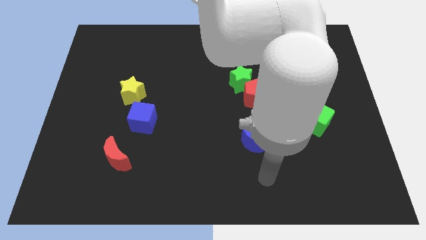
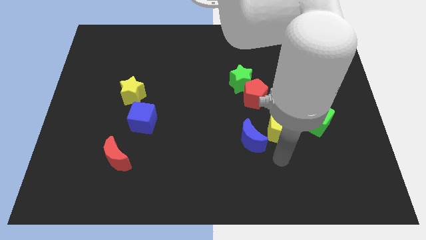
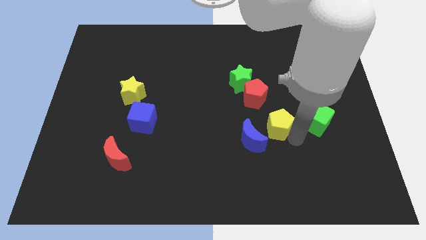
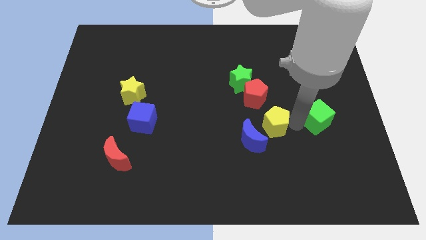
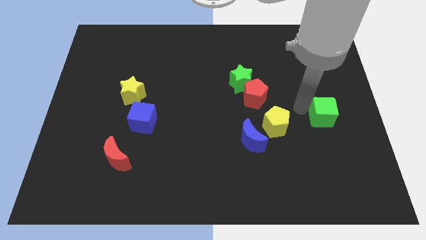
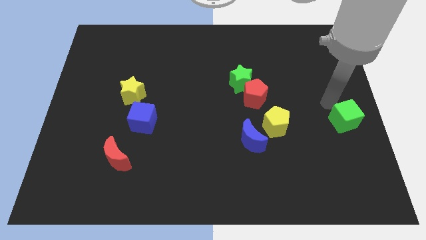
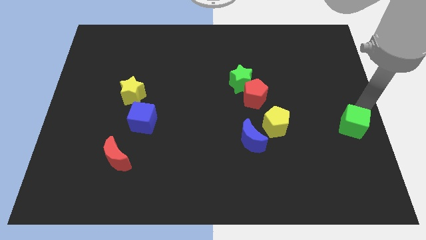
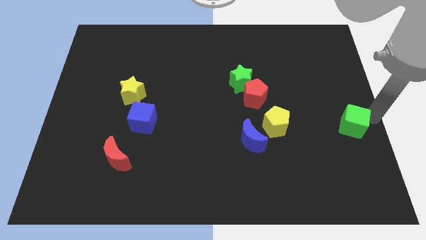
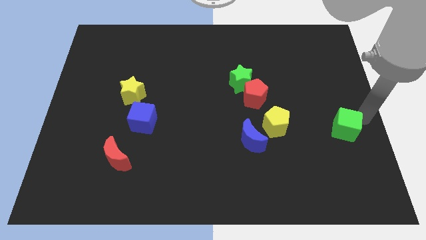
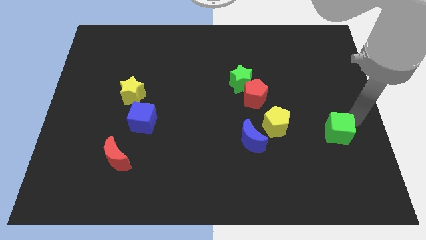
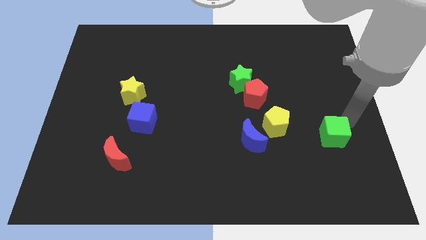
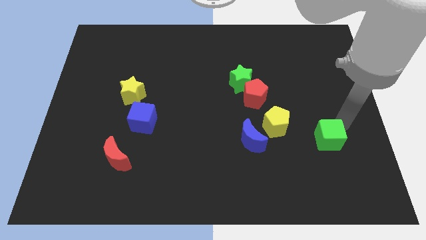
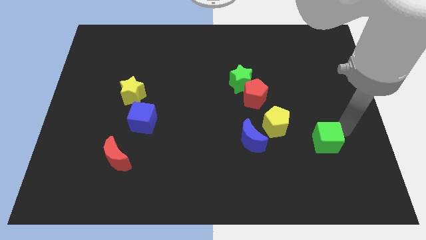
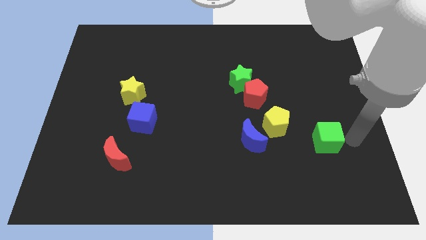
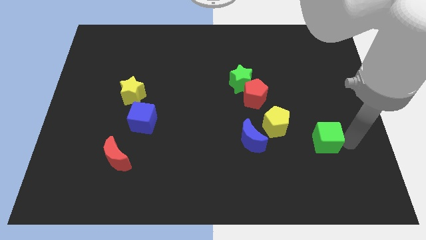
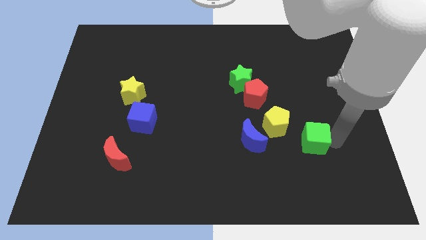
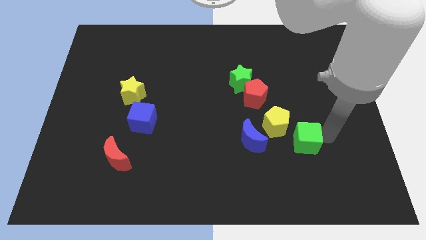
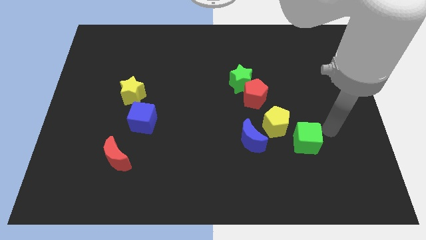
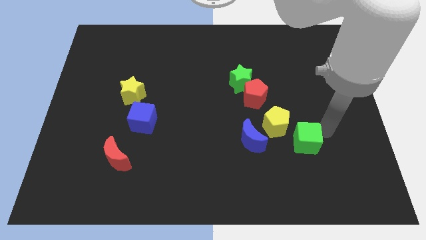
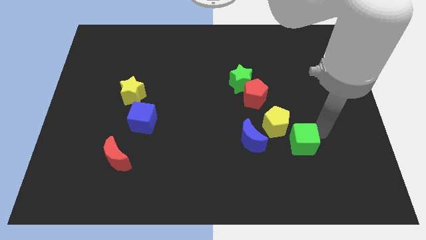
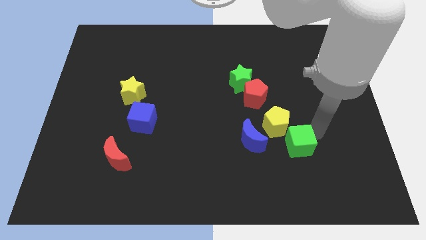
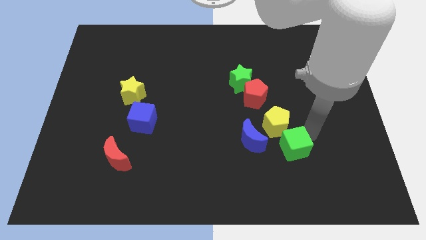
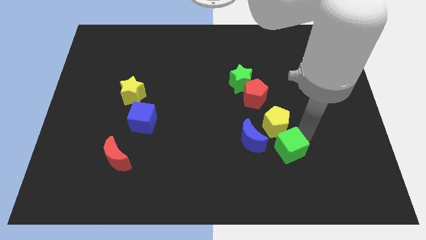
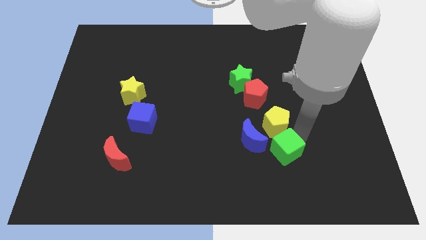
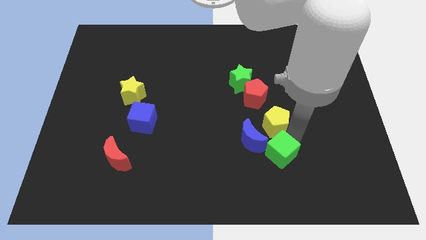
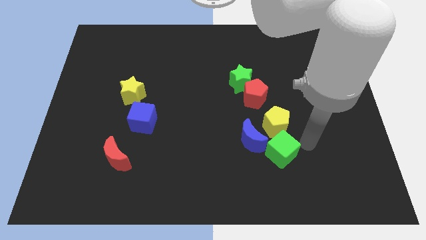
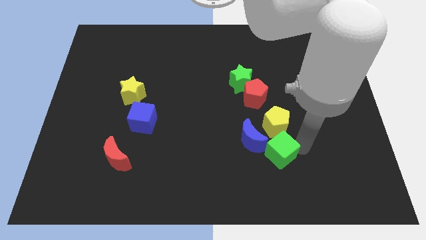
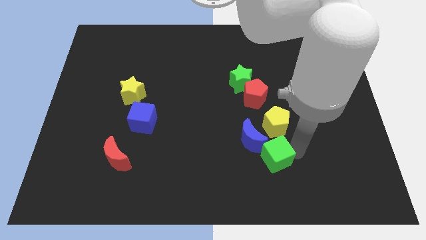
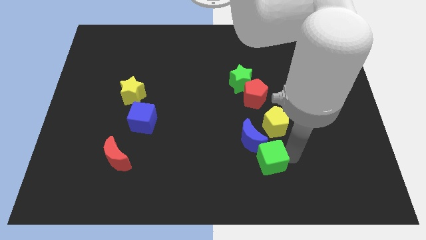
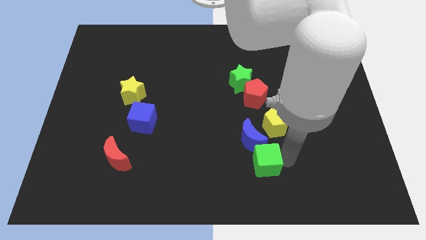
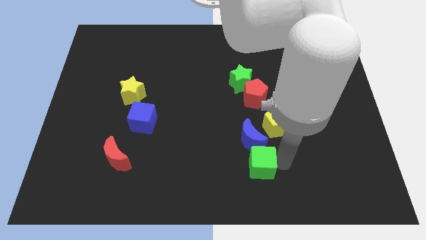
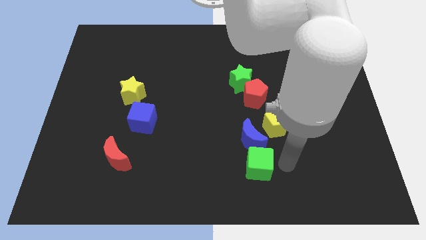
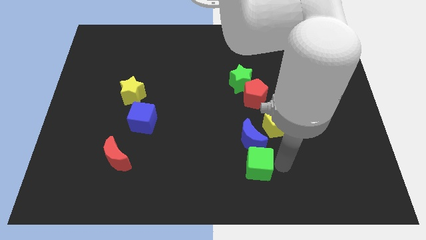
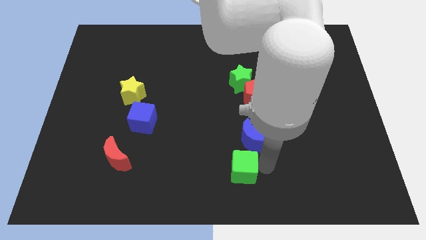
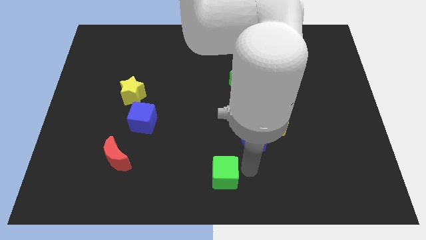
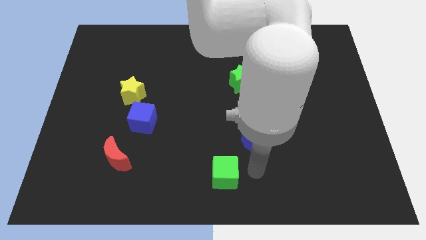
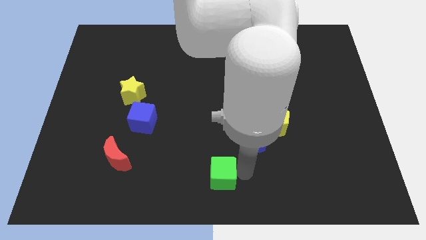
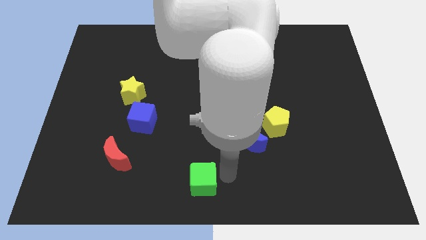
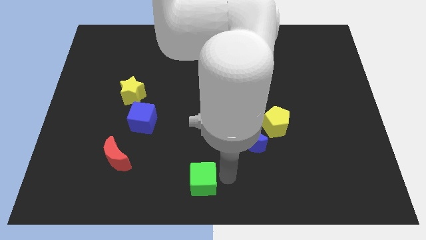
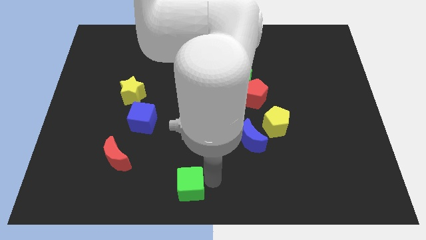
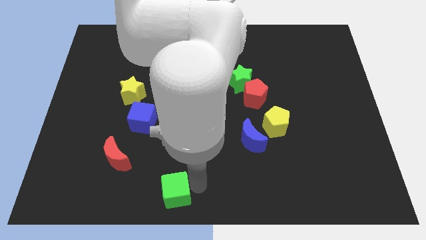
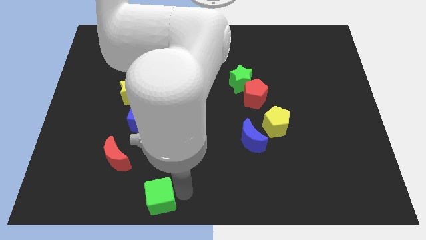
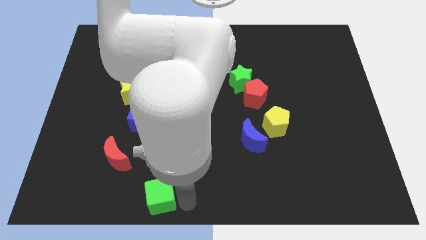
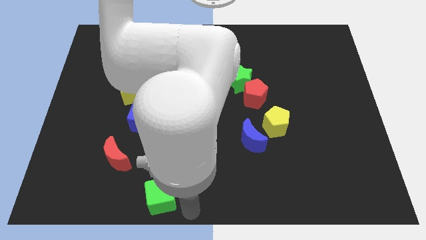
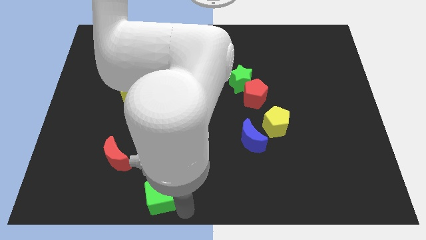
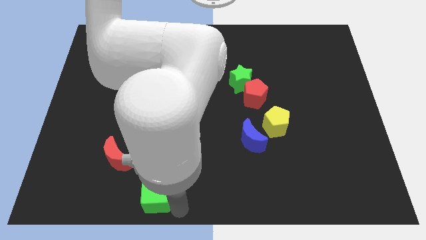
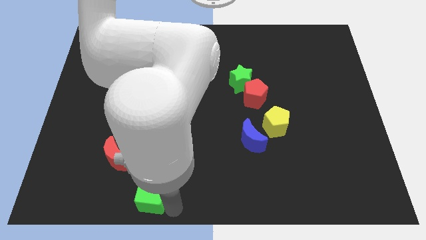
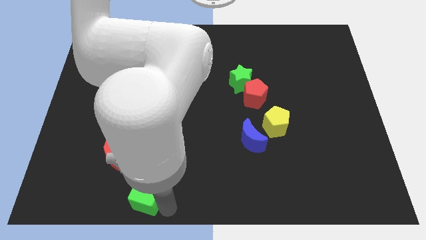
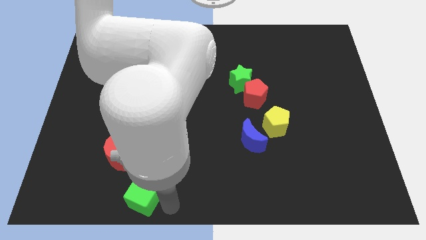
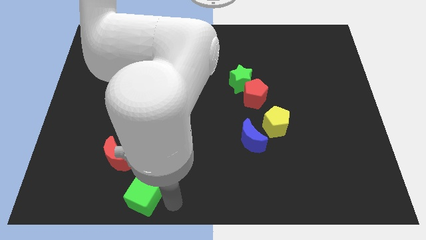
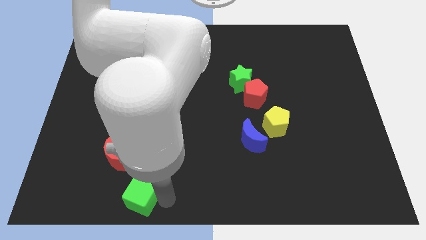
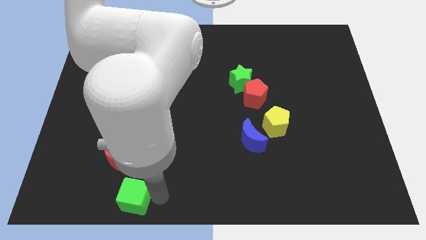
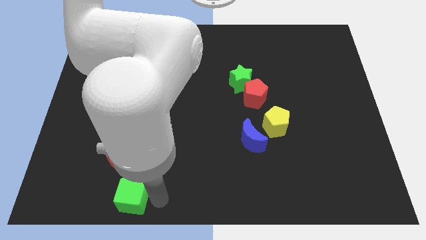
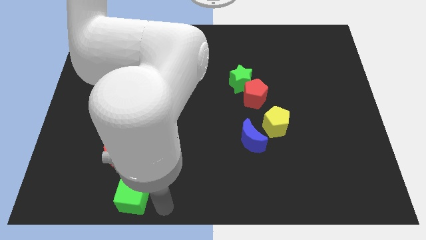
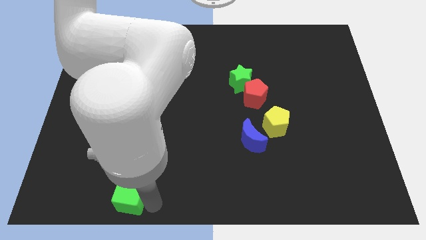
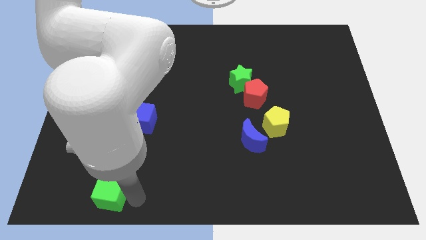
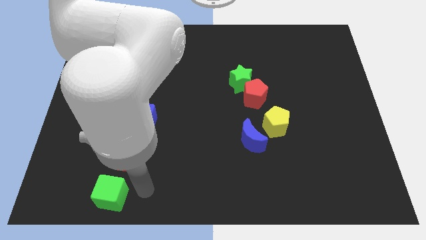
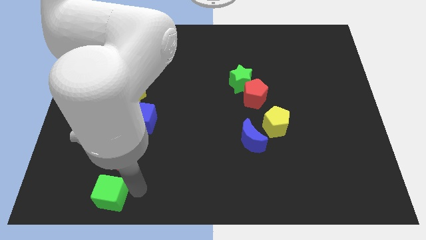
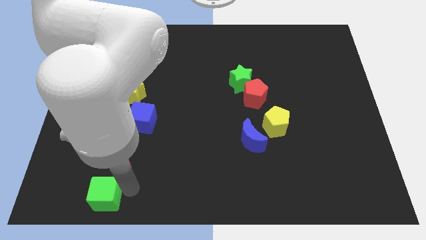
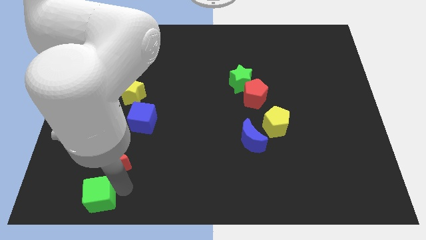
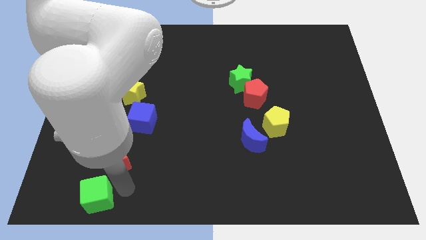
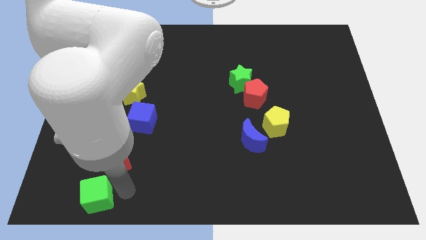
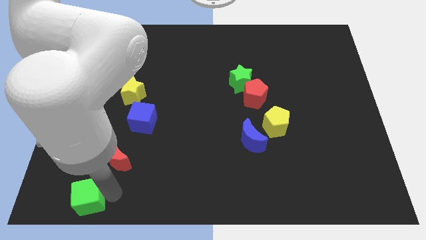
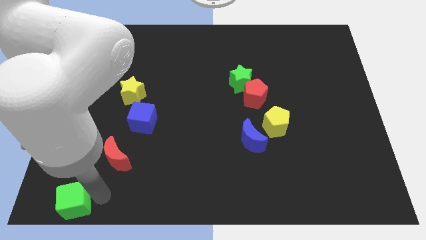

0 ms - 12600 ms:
put the green cube to the lower left corner

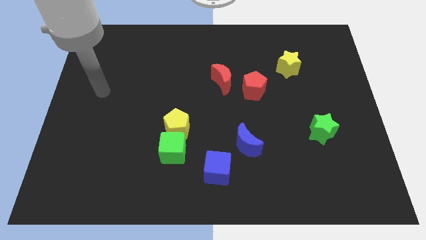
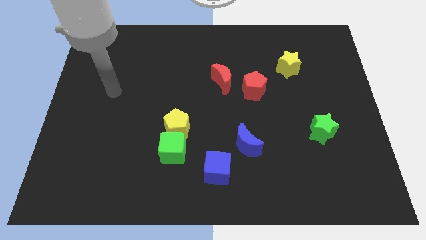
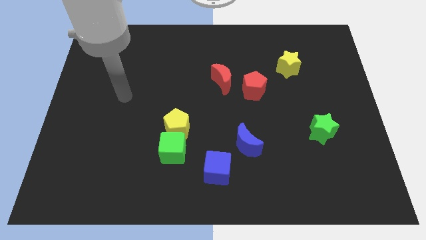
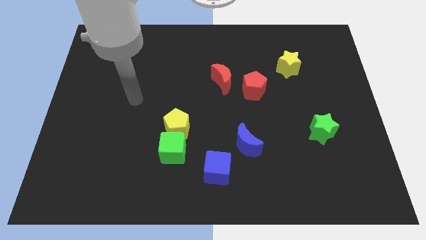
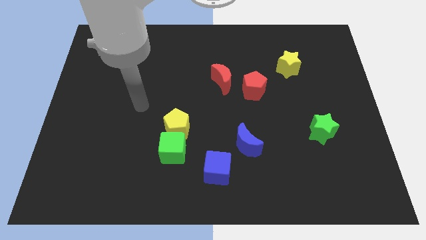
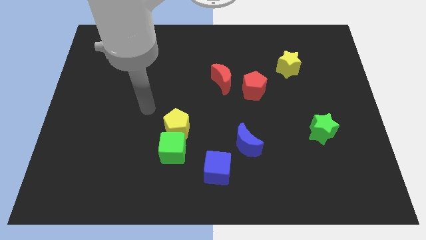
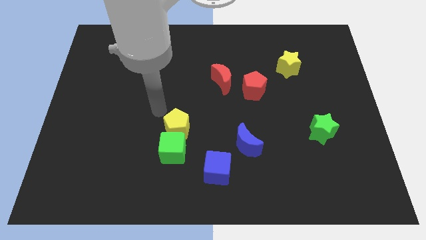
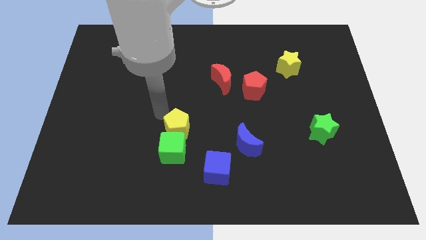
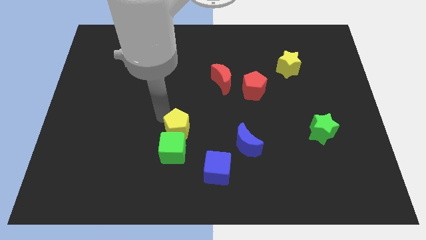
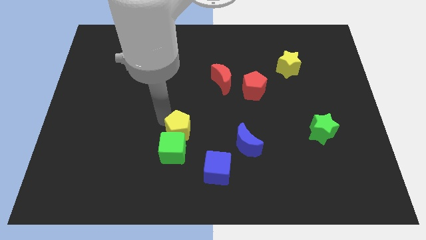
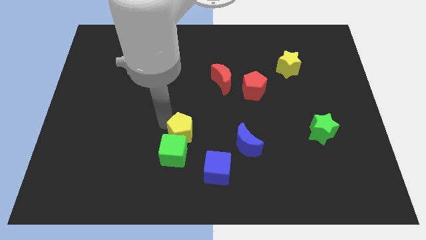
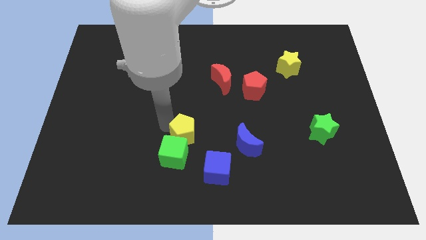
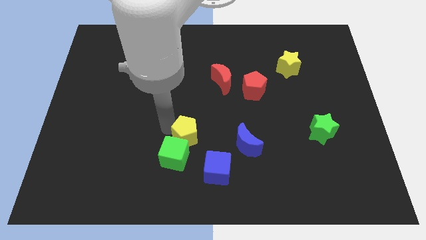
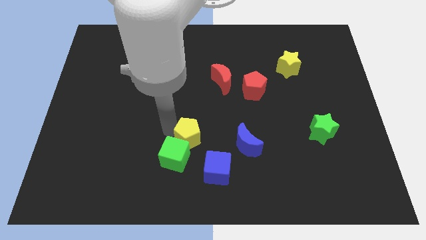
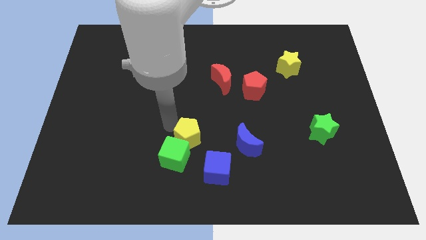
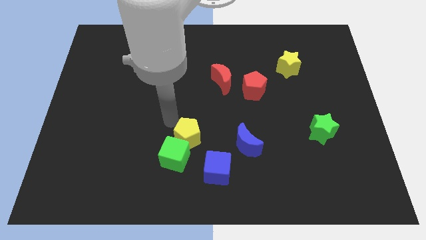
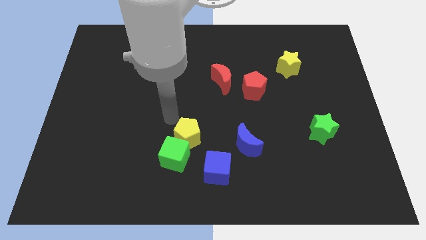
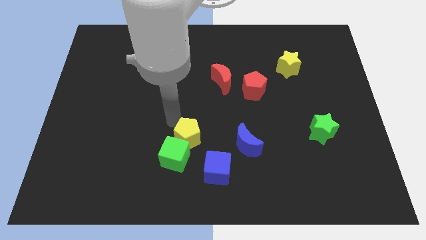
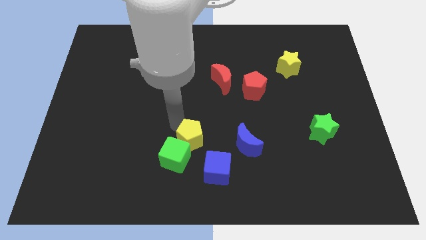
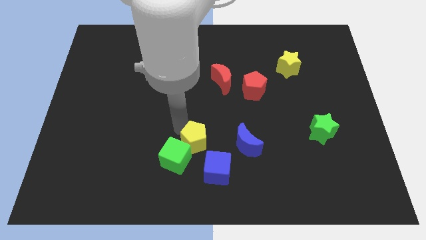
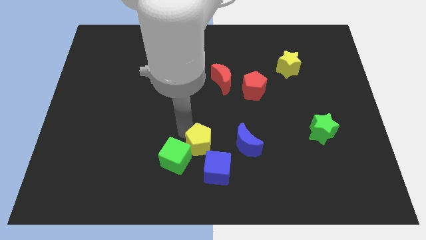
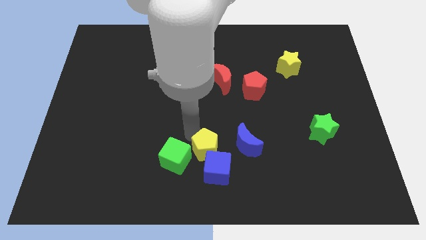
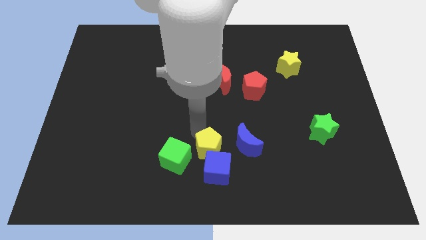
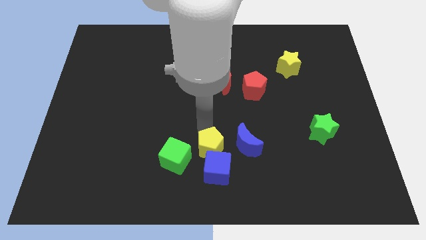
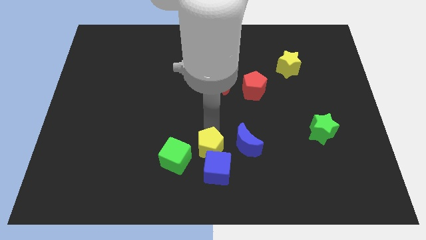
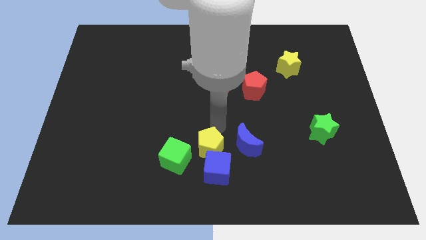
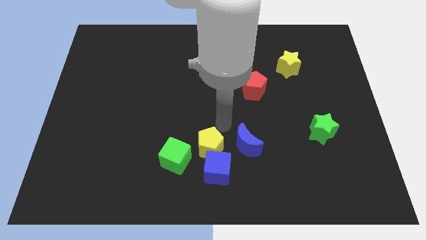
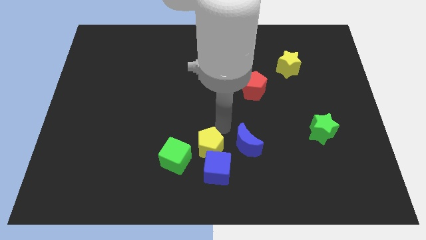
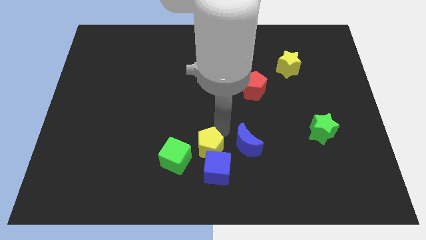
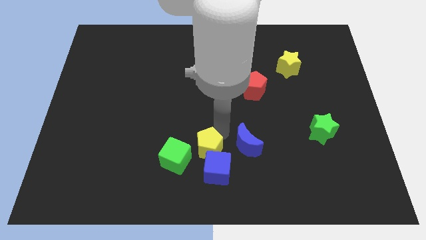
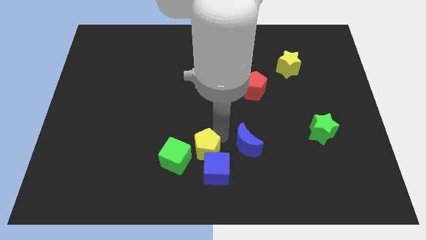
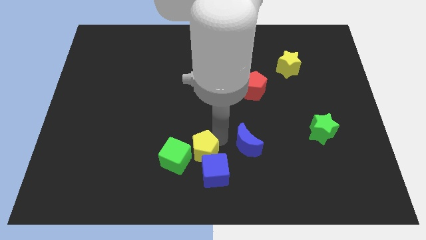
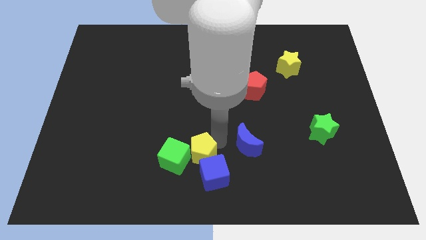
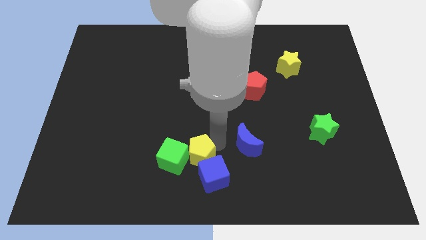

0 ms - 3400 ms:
put the yellow pentagon to the bottom
